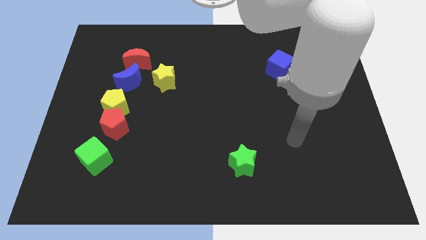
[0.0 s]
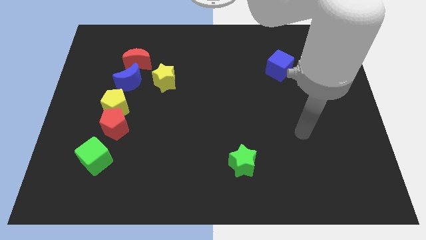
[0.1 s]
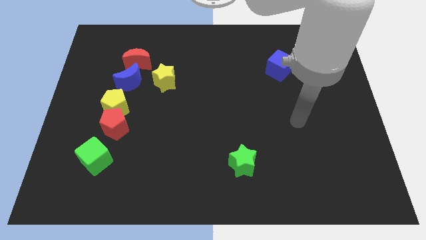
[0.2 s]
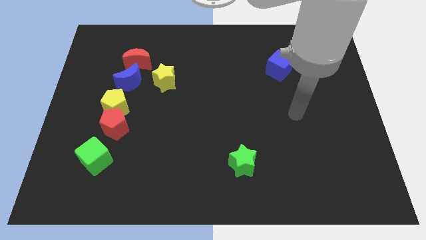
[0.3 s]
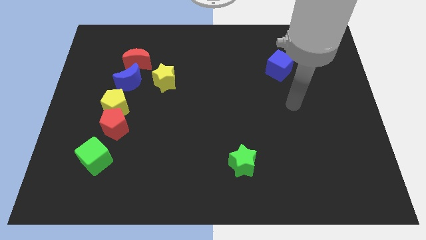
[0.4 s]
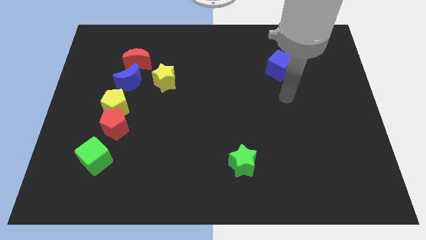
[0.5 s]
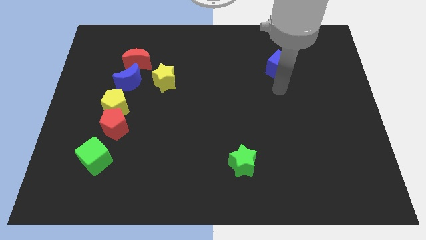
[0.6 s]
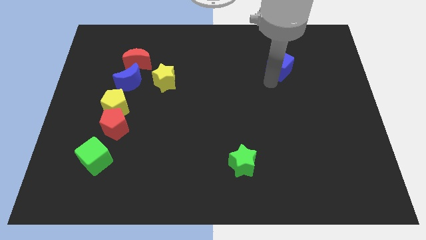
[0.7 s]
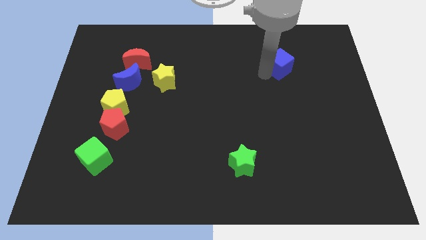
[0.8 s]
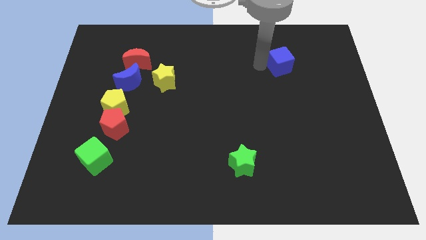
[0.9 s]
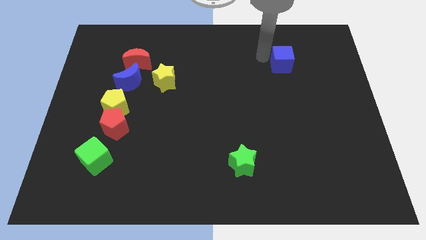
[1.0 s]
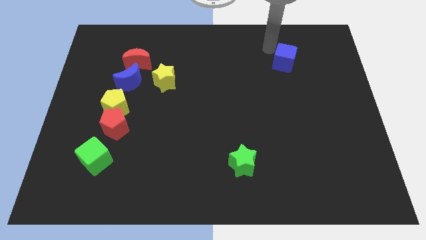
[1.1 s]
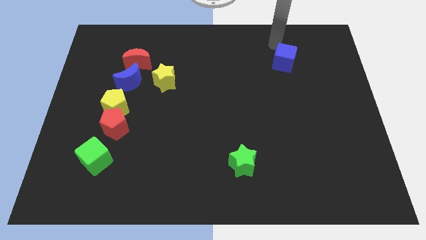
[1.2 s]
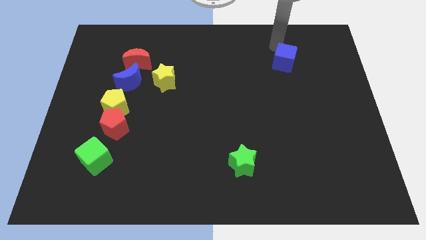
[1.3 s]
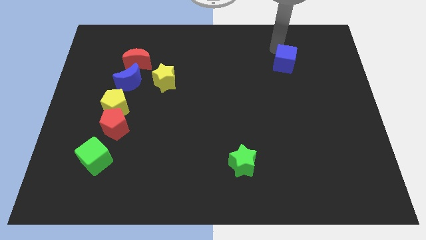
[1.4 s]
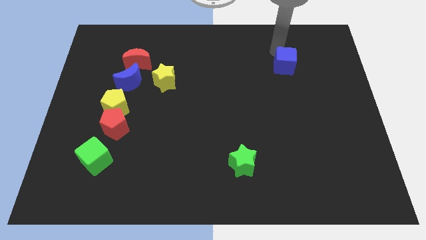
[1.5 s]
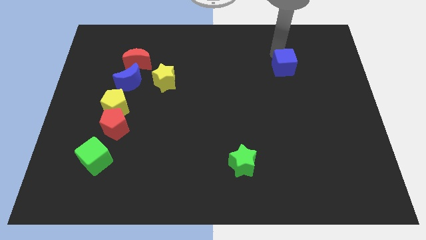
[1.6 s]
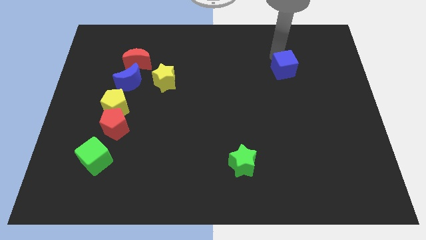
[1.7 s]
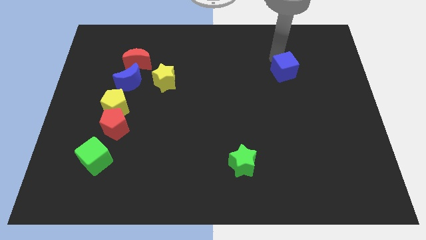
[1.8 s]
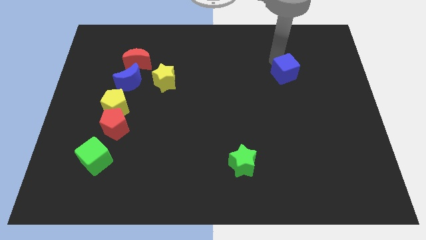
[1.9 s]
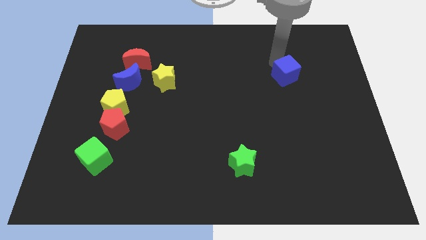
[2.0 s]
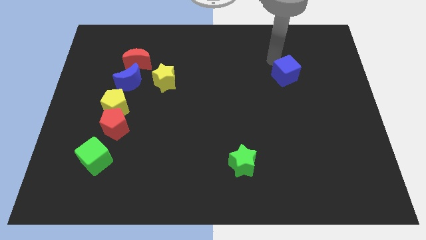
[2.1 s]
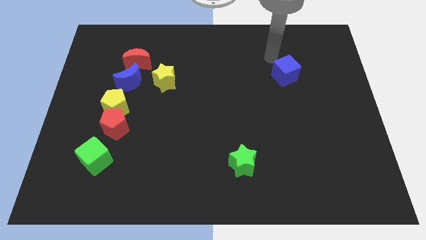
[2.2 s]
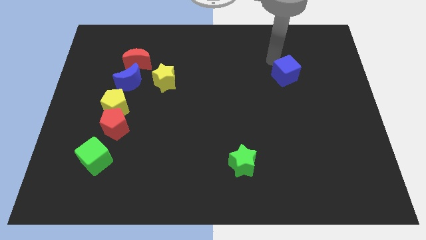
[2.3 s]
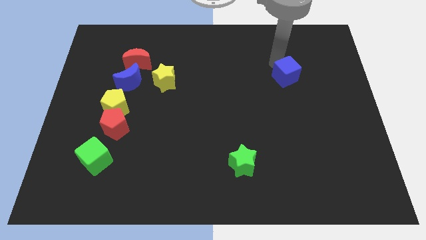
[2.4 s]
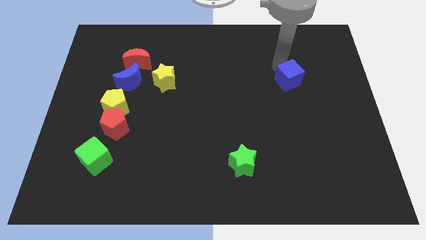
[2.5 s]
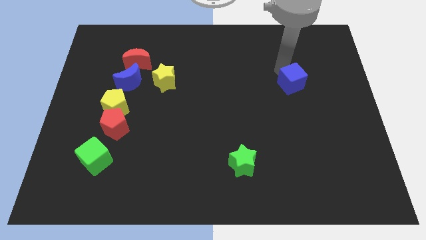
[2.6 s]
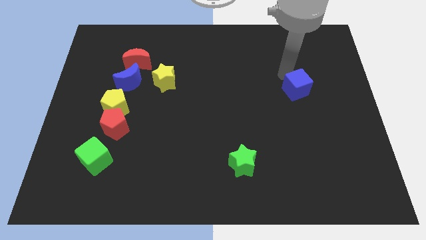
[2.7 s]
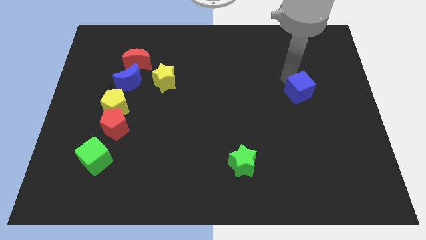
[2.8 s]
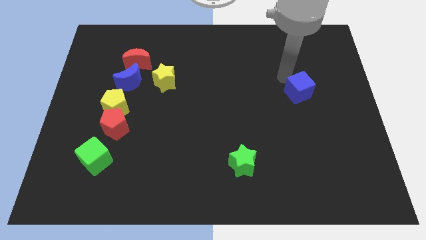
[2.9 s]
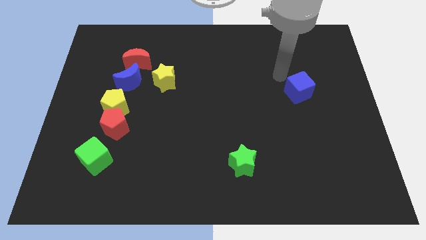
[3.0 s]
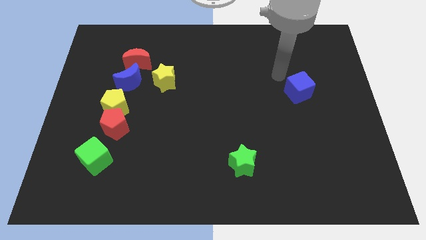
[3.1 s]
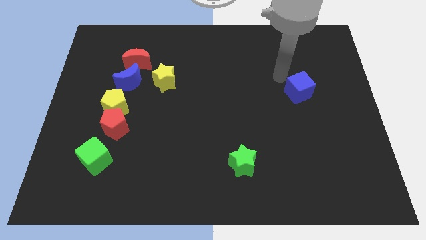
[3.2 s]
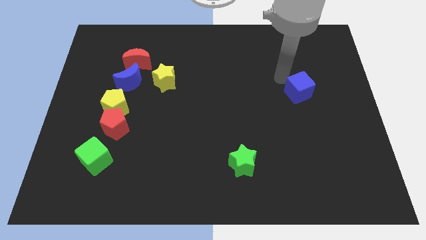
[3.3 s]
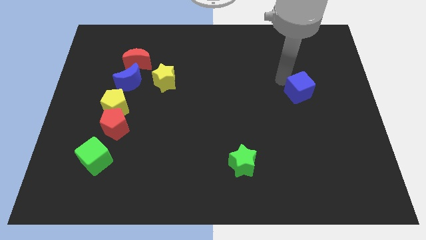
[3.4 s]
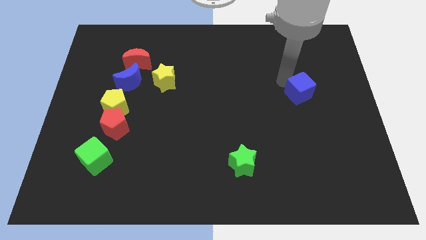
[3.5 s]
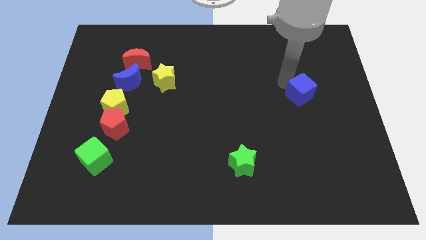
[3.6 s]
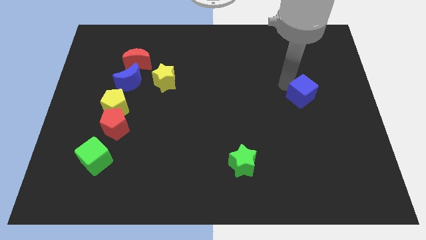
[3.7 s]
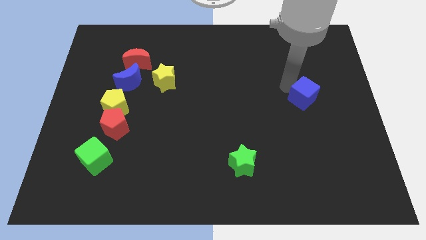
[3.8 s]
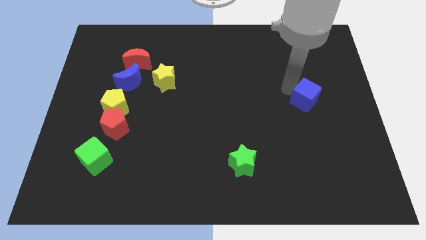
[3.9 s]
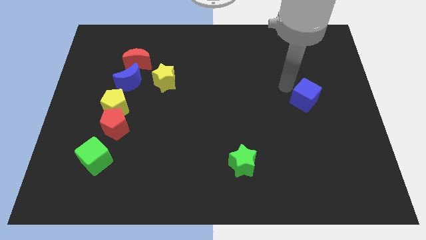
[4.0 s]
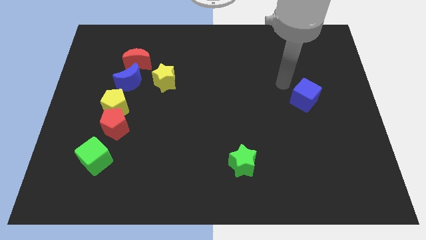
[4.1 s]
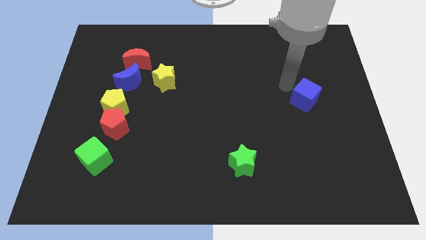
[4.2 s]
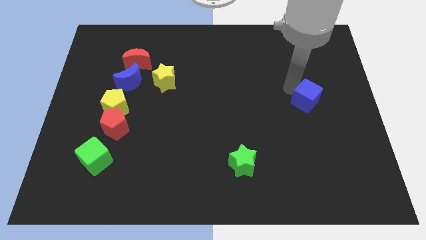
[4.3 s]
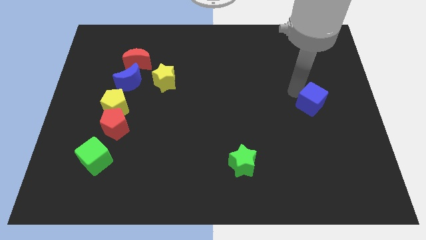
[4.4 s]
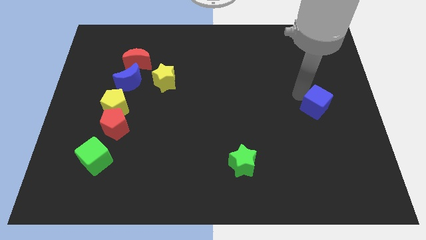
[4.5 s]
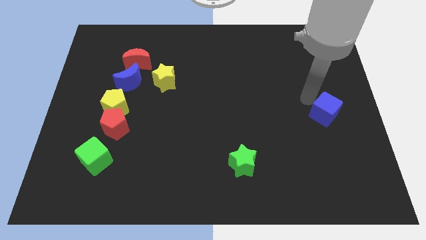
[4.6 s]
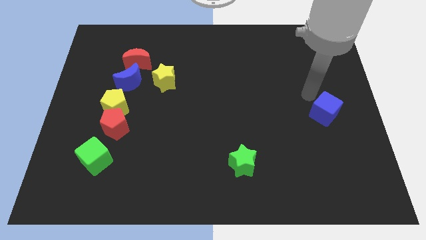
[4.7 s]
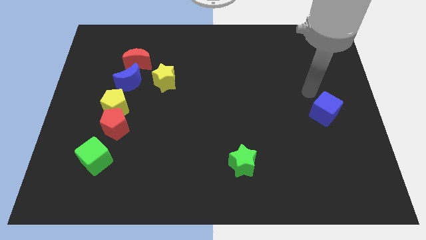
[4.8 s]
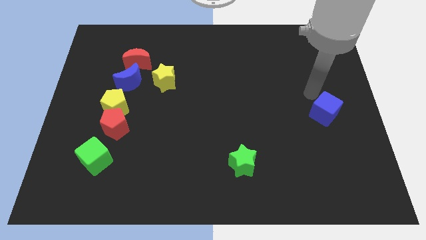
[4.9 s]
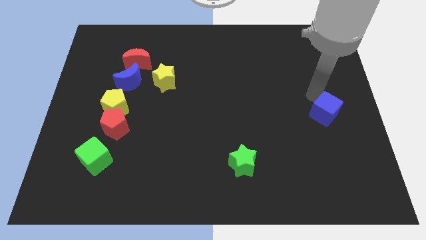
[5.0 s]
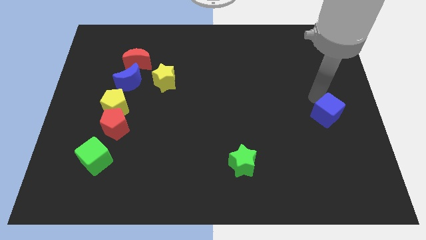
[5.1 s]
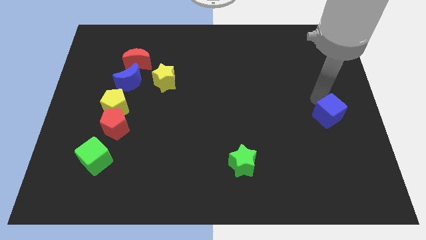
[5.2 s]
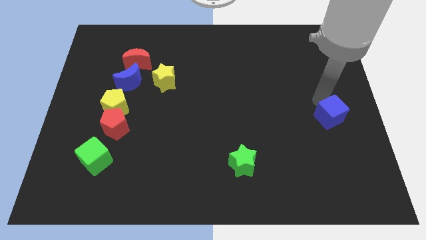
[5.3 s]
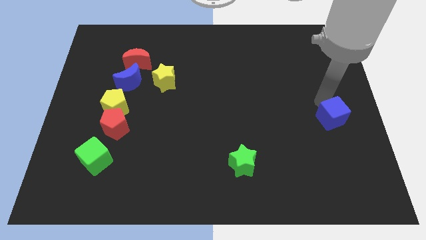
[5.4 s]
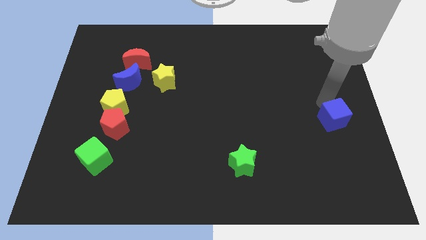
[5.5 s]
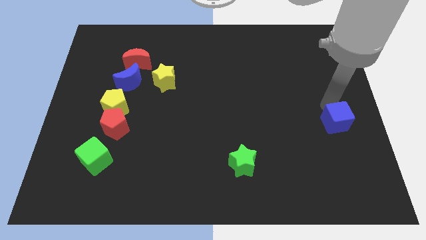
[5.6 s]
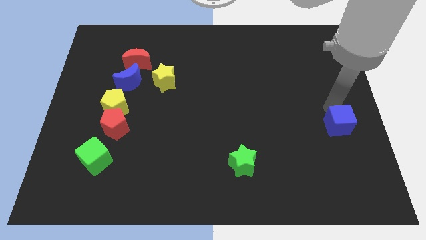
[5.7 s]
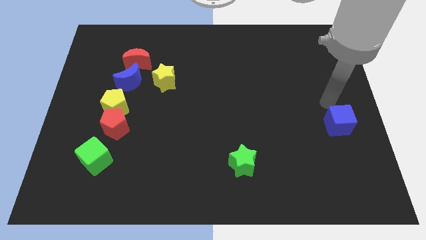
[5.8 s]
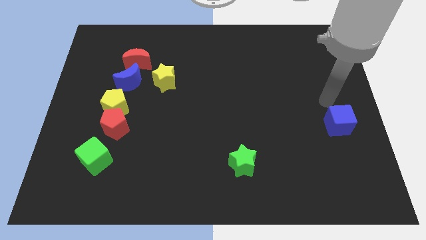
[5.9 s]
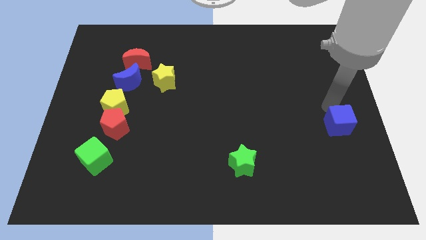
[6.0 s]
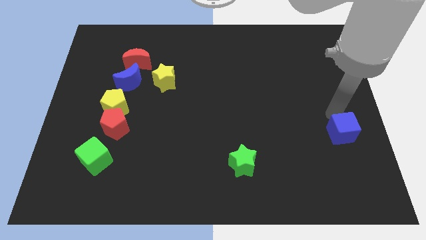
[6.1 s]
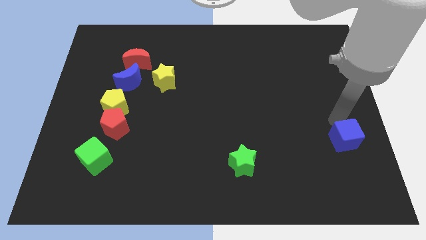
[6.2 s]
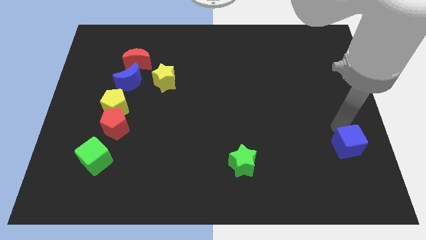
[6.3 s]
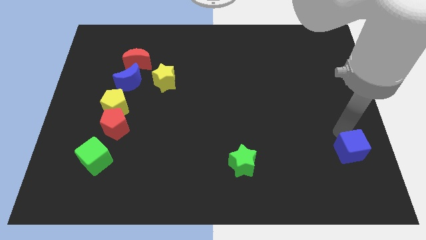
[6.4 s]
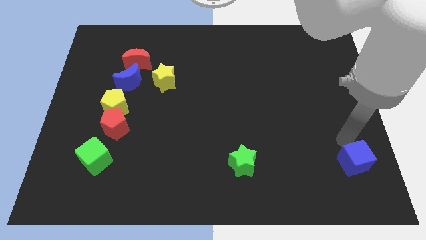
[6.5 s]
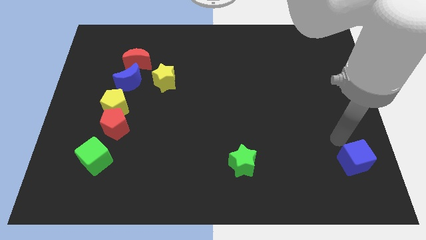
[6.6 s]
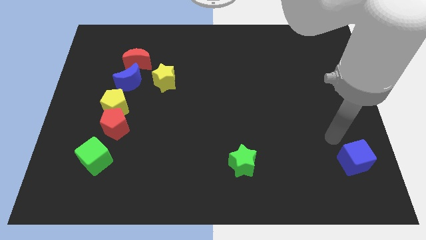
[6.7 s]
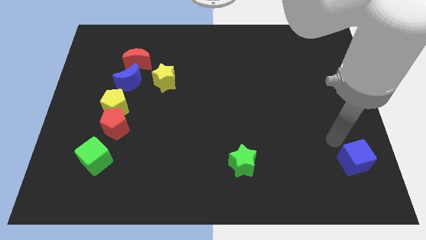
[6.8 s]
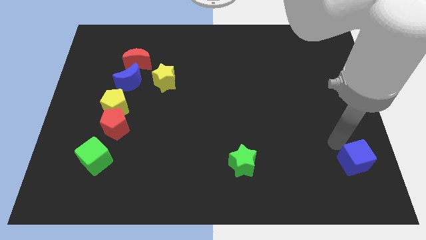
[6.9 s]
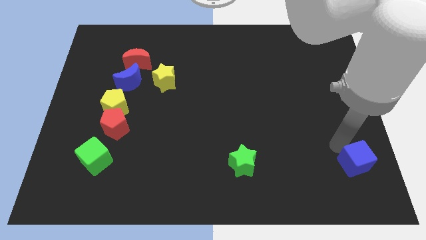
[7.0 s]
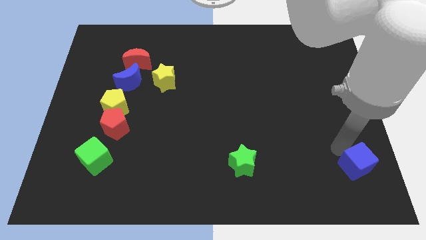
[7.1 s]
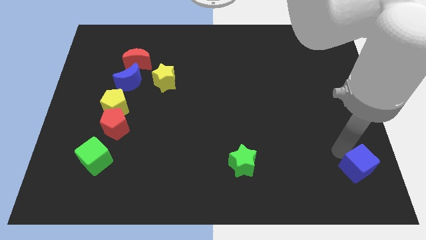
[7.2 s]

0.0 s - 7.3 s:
push the blue cube to the lower right corner
